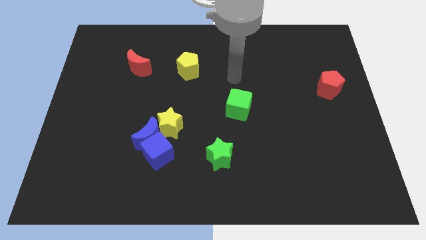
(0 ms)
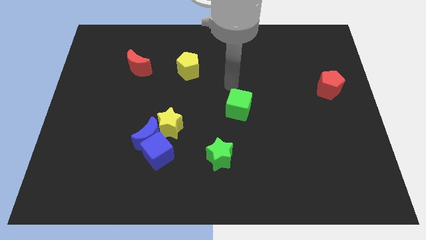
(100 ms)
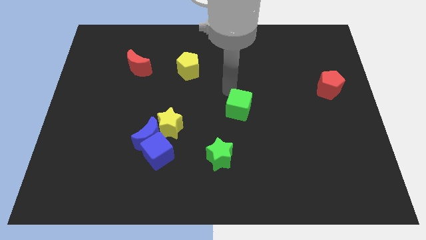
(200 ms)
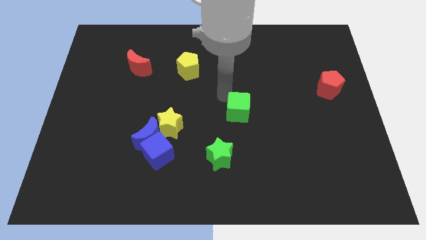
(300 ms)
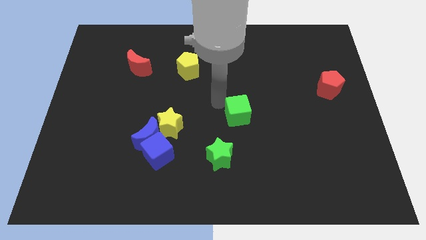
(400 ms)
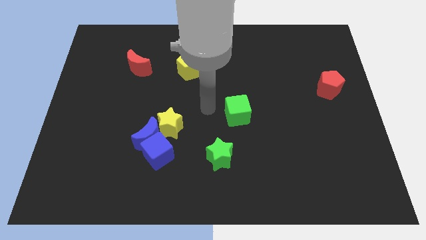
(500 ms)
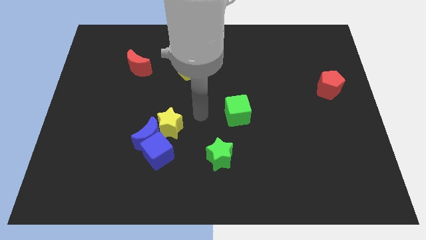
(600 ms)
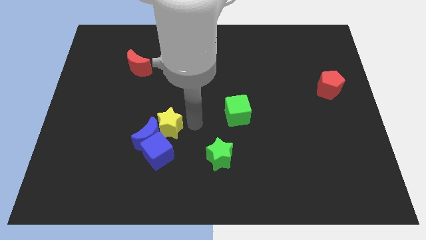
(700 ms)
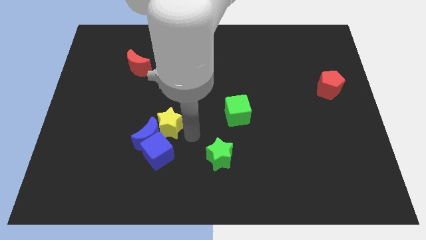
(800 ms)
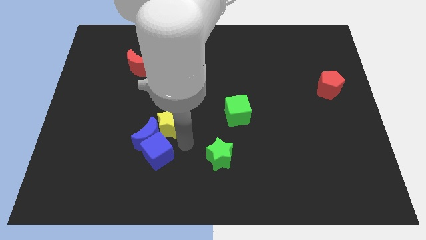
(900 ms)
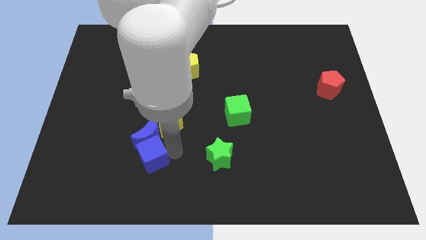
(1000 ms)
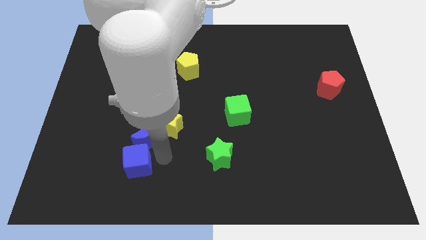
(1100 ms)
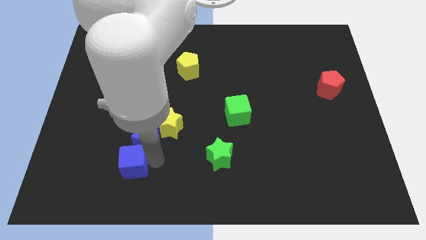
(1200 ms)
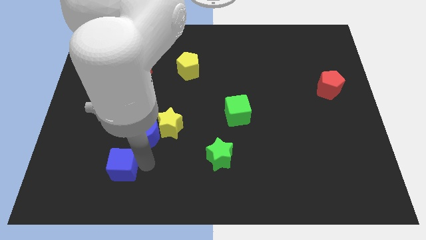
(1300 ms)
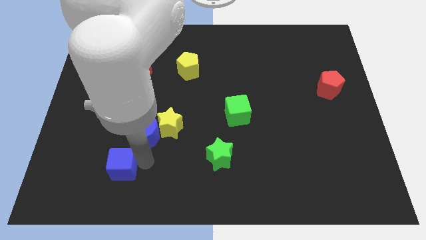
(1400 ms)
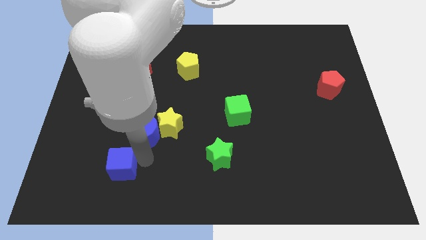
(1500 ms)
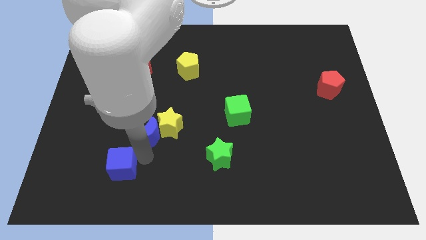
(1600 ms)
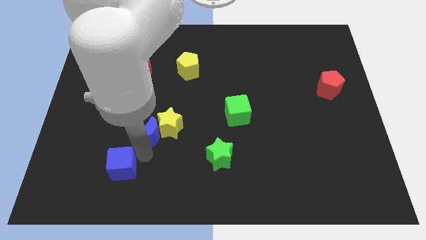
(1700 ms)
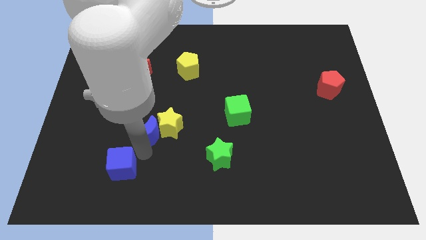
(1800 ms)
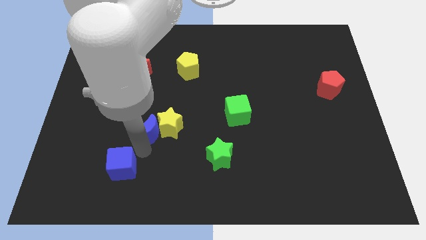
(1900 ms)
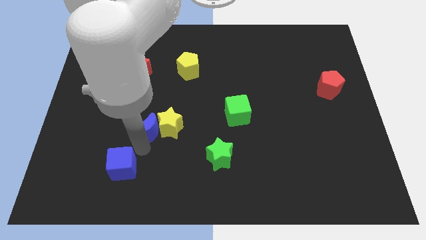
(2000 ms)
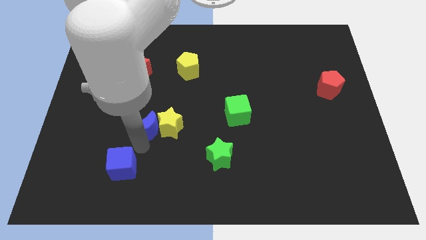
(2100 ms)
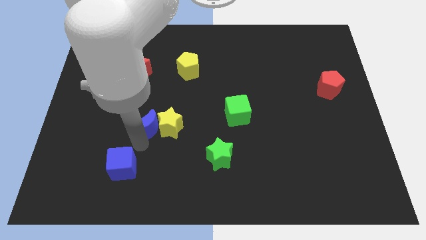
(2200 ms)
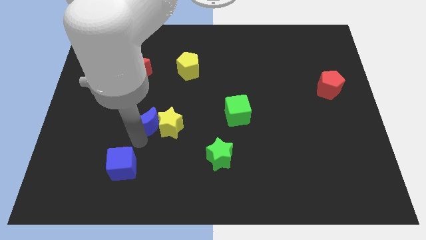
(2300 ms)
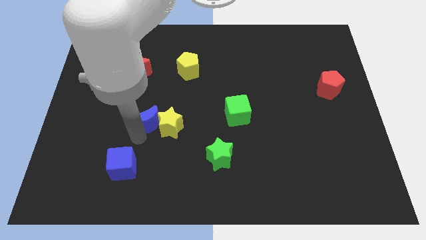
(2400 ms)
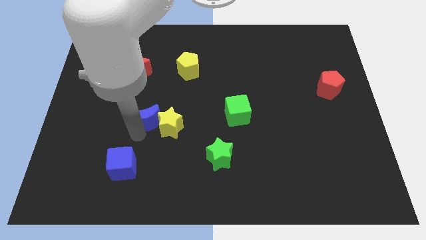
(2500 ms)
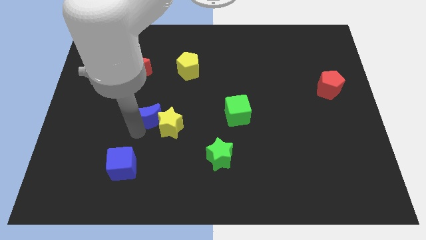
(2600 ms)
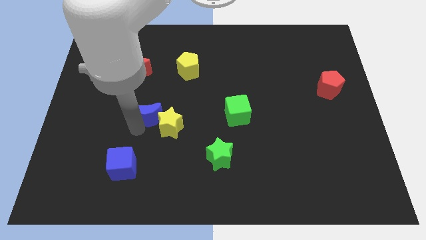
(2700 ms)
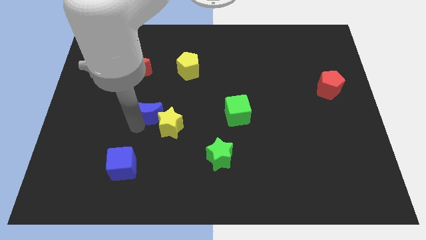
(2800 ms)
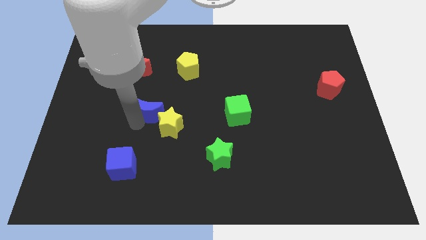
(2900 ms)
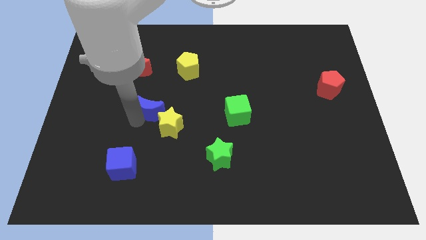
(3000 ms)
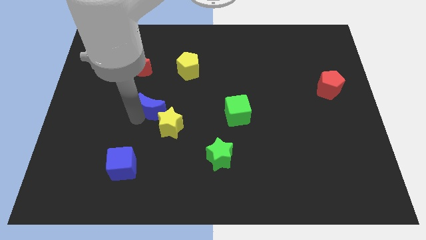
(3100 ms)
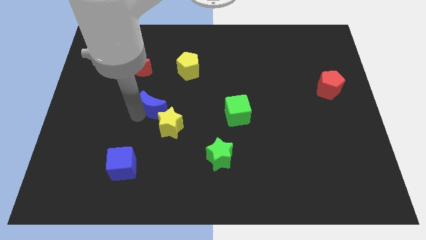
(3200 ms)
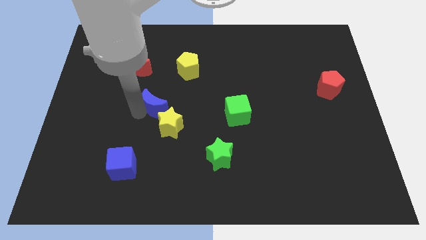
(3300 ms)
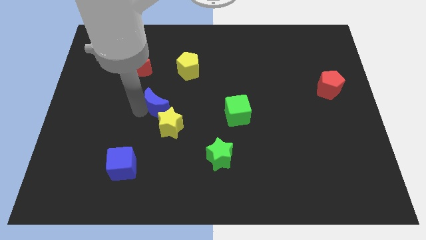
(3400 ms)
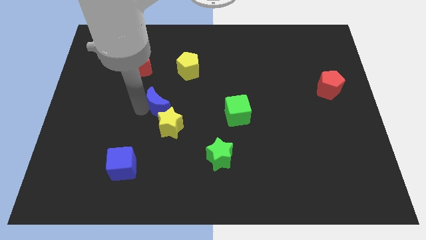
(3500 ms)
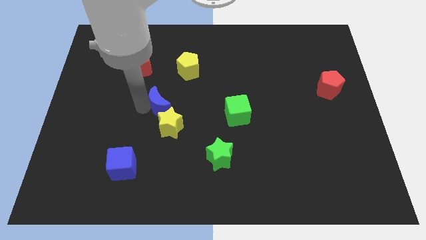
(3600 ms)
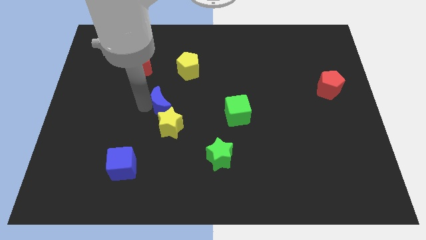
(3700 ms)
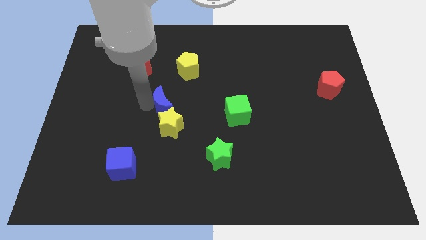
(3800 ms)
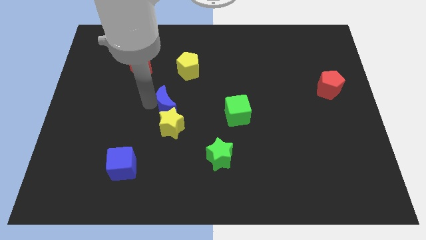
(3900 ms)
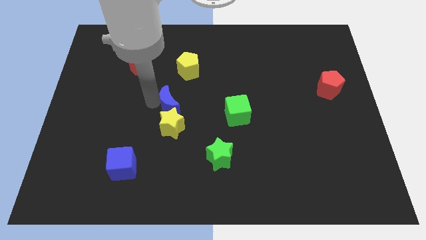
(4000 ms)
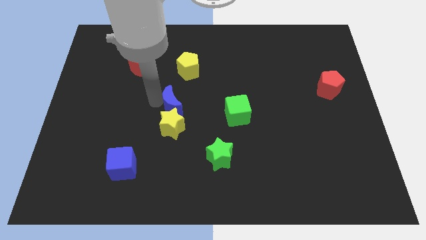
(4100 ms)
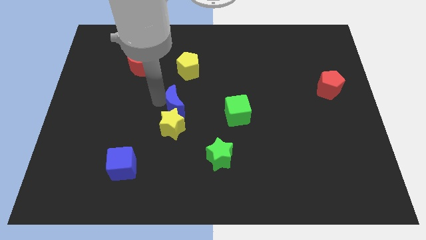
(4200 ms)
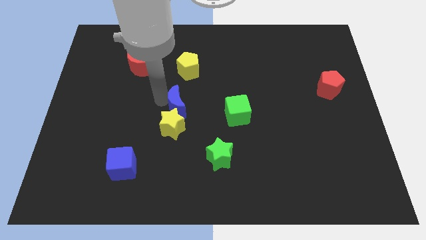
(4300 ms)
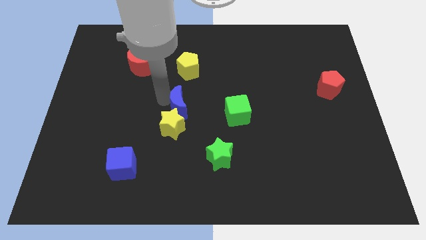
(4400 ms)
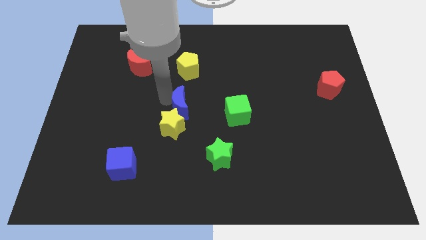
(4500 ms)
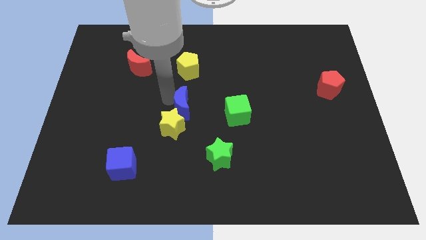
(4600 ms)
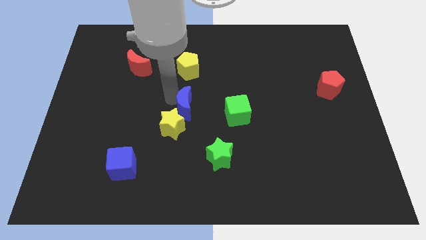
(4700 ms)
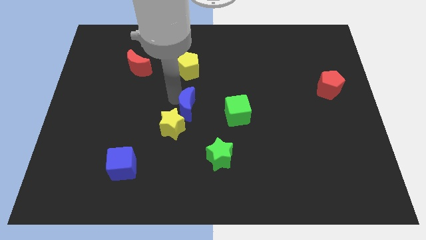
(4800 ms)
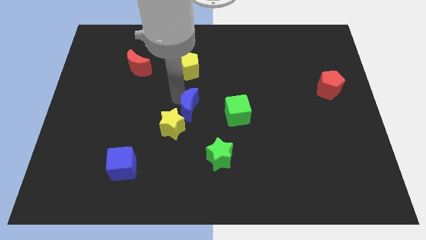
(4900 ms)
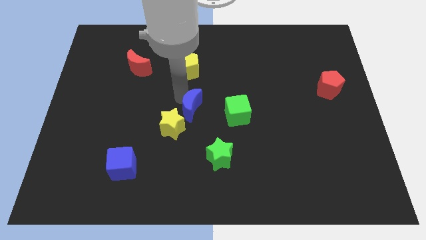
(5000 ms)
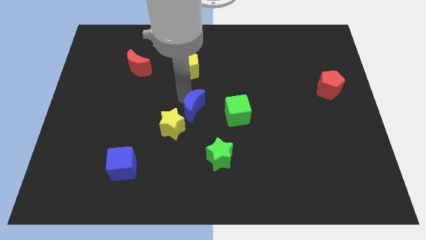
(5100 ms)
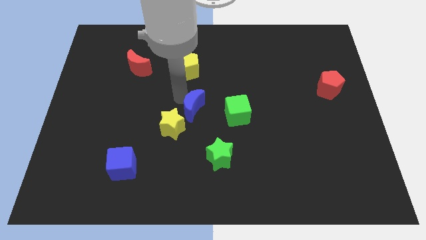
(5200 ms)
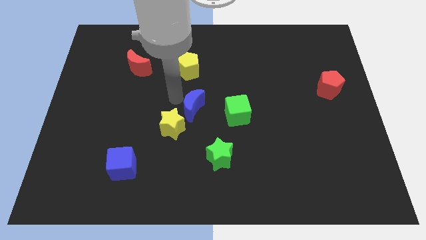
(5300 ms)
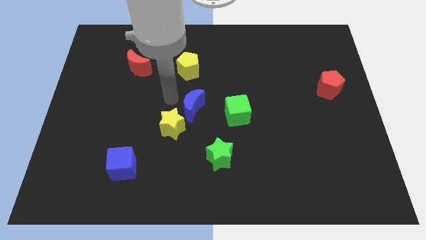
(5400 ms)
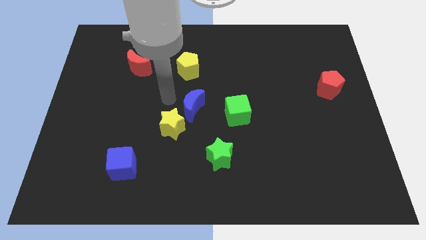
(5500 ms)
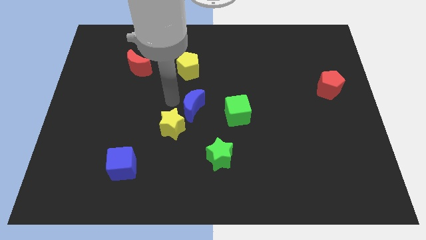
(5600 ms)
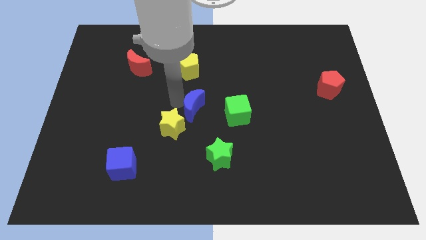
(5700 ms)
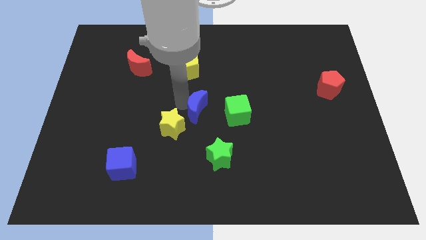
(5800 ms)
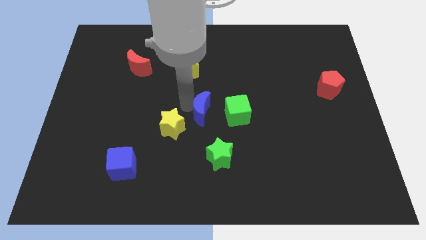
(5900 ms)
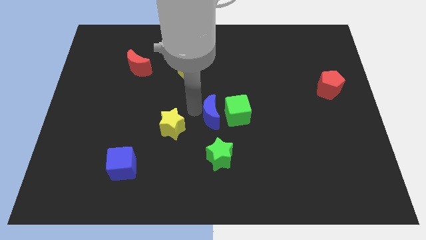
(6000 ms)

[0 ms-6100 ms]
move the blue moon close to the green cube

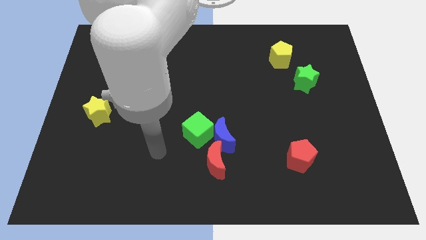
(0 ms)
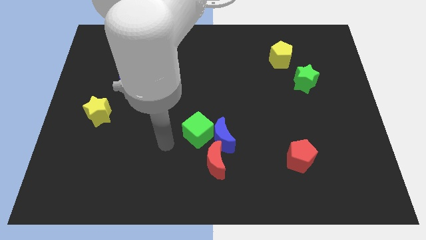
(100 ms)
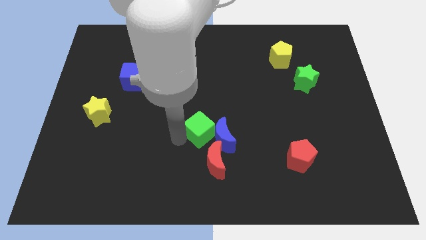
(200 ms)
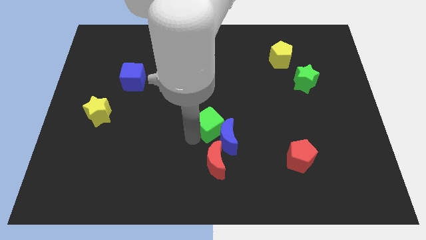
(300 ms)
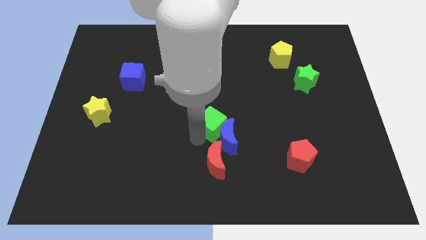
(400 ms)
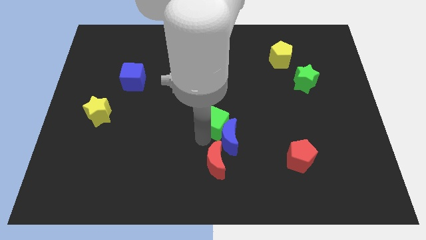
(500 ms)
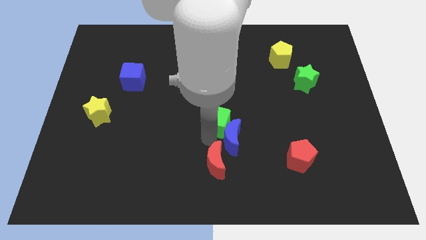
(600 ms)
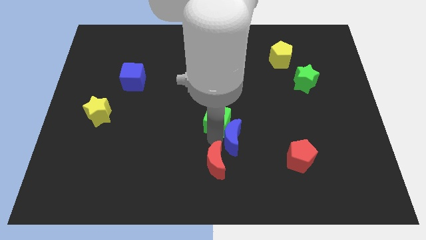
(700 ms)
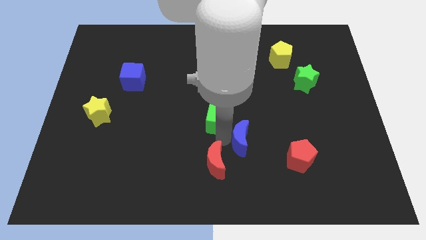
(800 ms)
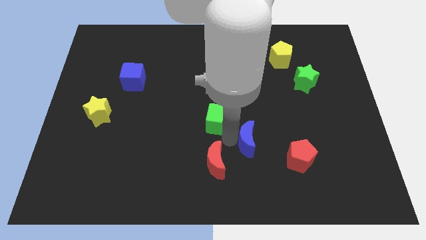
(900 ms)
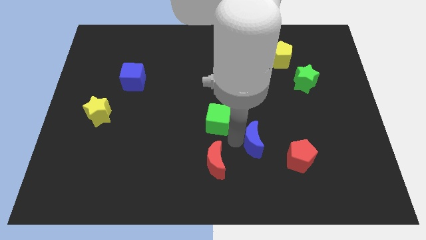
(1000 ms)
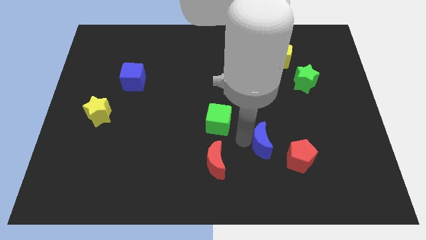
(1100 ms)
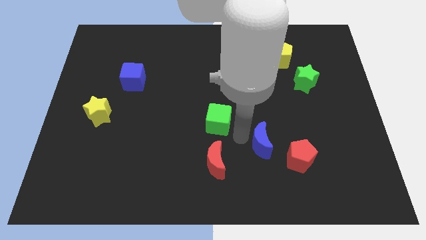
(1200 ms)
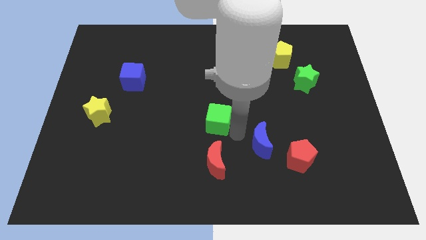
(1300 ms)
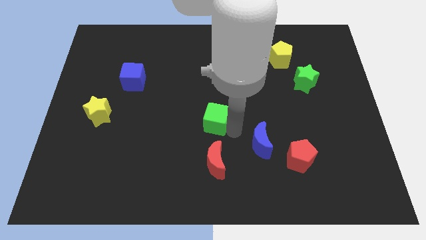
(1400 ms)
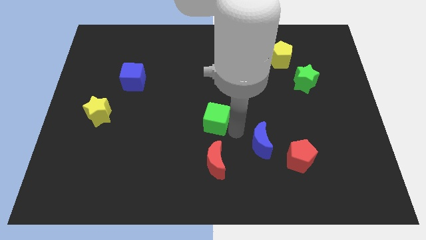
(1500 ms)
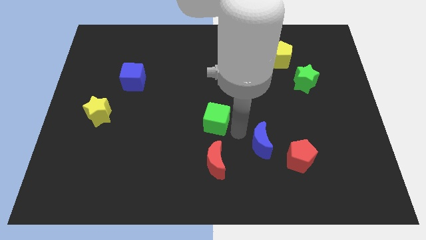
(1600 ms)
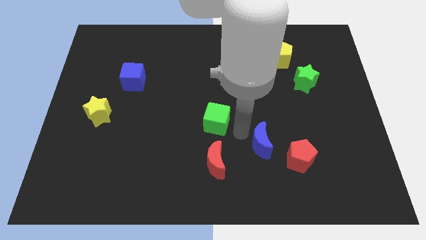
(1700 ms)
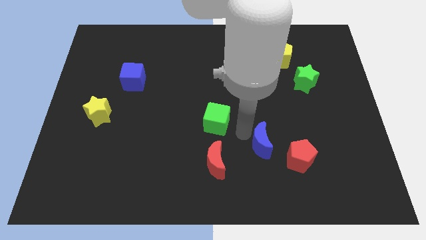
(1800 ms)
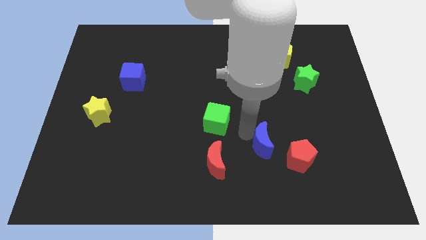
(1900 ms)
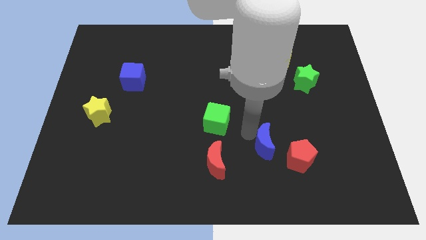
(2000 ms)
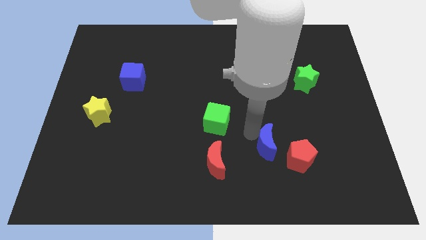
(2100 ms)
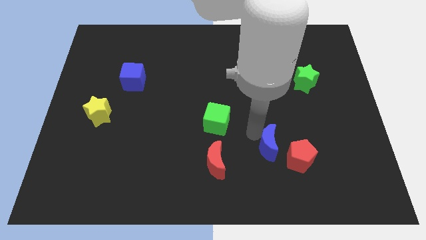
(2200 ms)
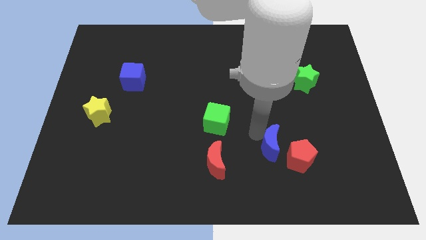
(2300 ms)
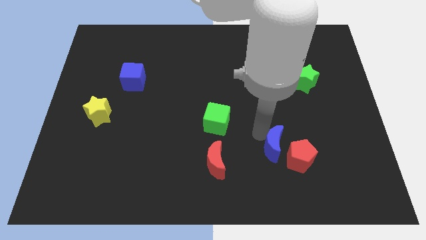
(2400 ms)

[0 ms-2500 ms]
move the blue moon next to the red pentagon
